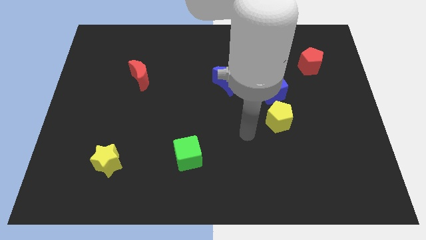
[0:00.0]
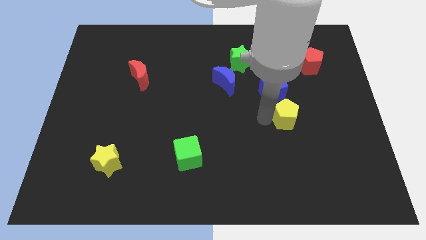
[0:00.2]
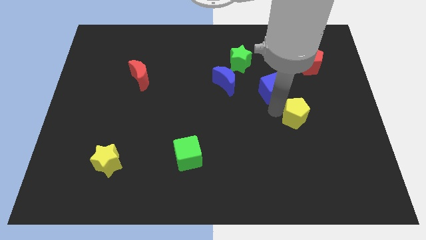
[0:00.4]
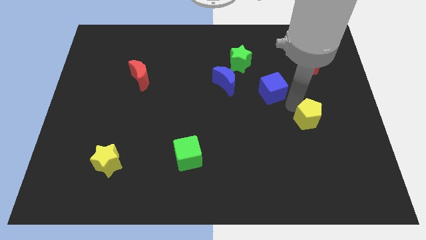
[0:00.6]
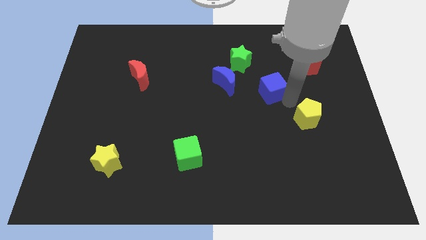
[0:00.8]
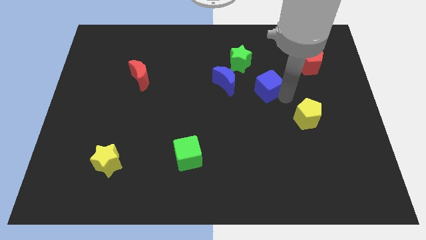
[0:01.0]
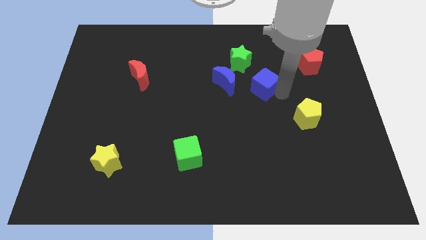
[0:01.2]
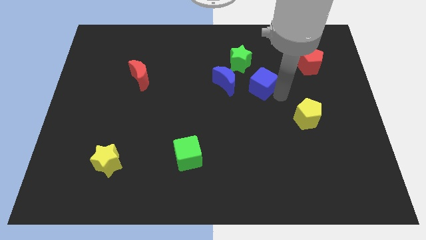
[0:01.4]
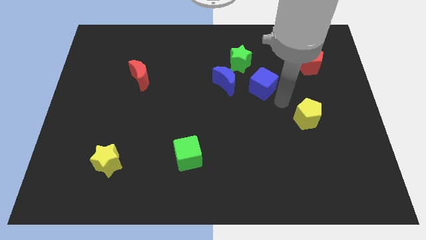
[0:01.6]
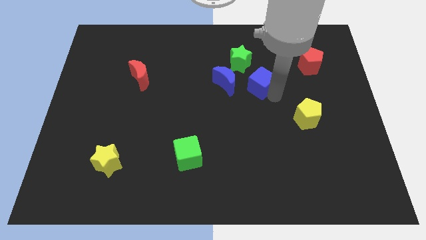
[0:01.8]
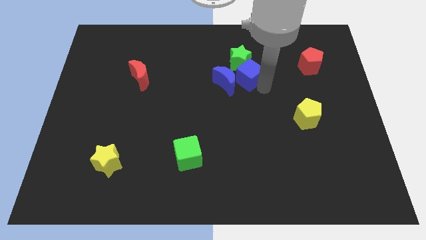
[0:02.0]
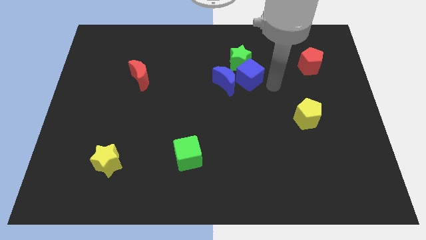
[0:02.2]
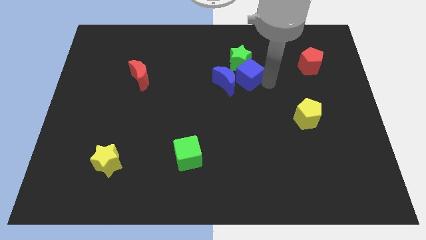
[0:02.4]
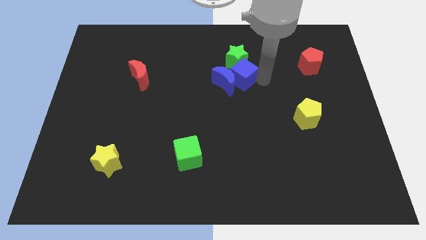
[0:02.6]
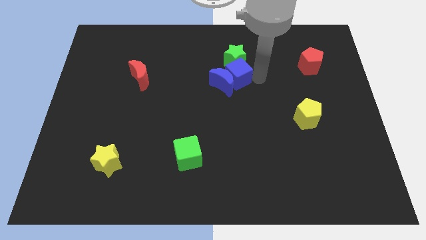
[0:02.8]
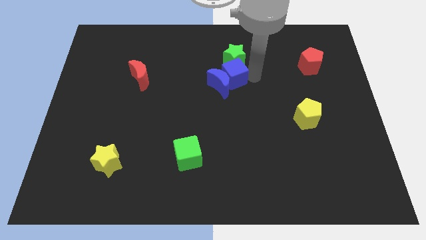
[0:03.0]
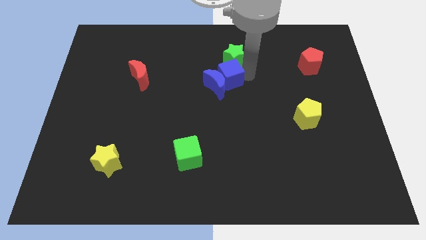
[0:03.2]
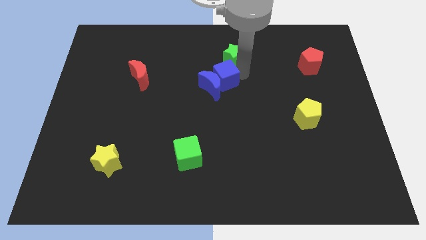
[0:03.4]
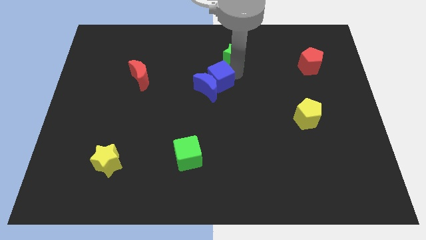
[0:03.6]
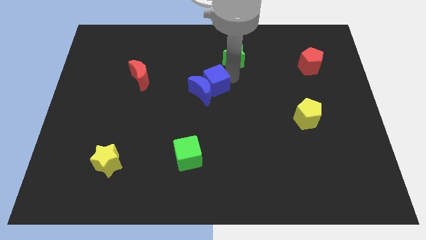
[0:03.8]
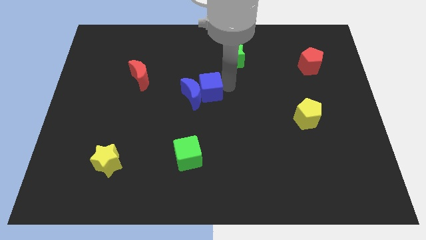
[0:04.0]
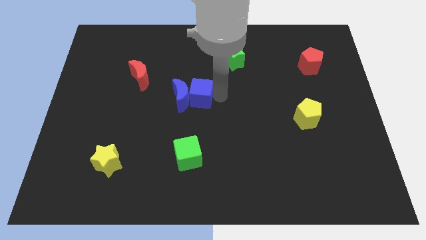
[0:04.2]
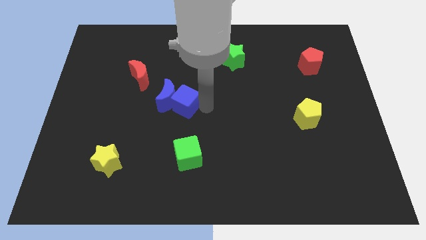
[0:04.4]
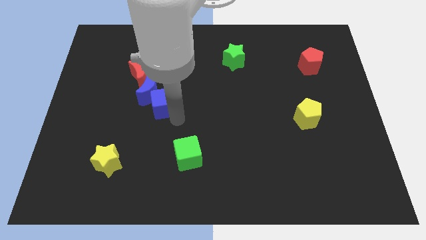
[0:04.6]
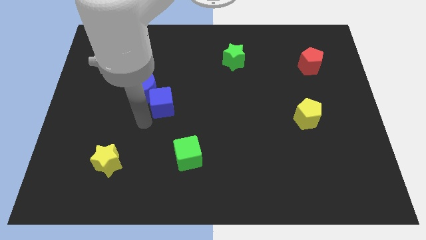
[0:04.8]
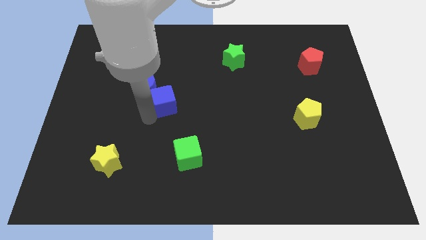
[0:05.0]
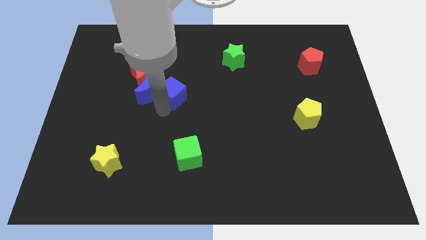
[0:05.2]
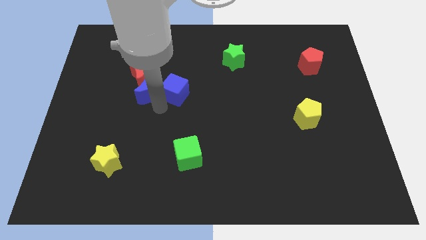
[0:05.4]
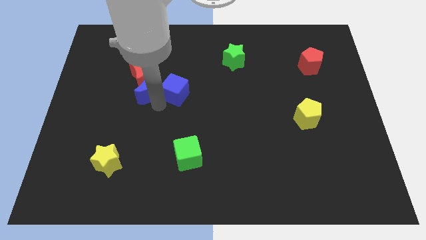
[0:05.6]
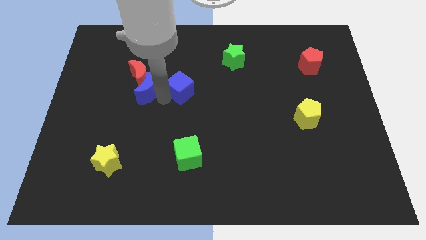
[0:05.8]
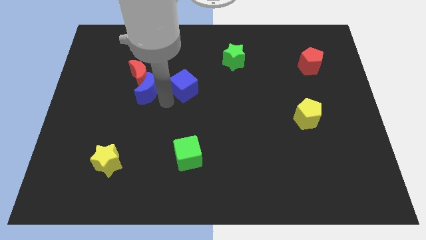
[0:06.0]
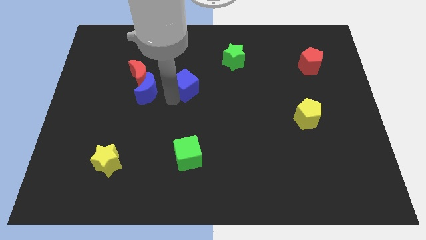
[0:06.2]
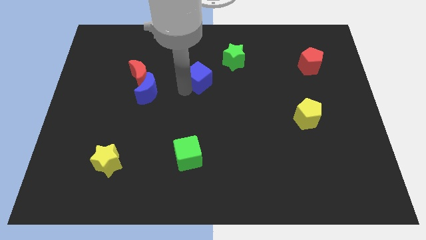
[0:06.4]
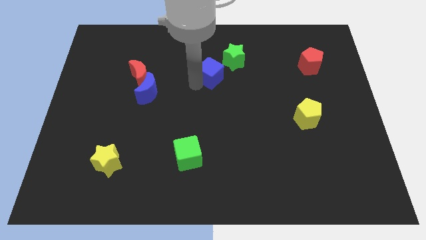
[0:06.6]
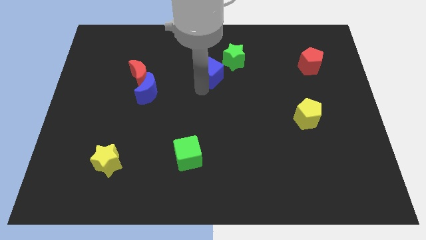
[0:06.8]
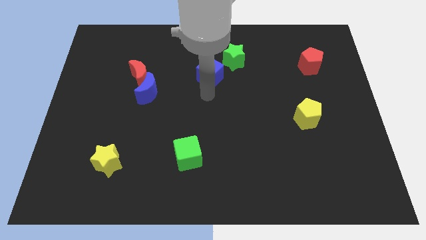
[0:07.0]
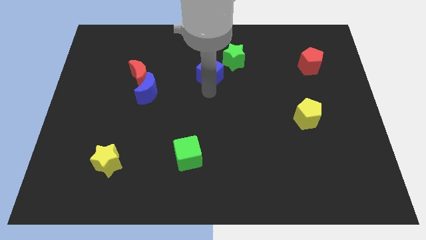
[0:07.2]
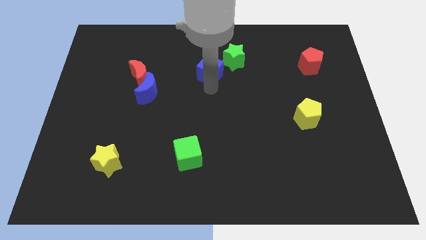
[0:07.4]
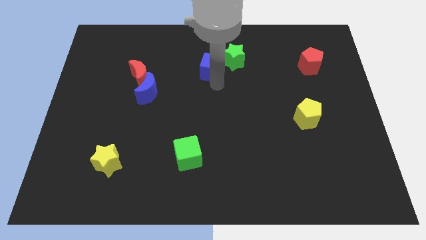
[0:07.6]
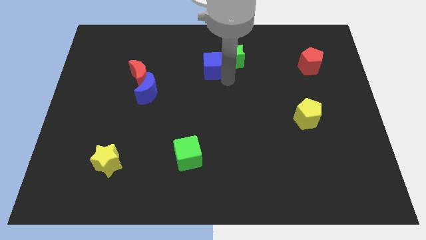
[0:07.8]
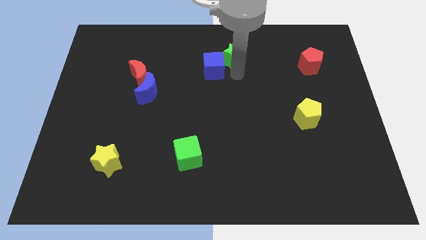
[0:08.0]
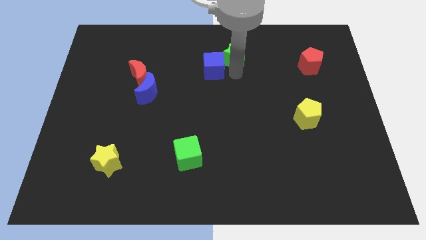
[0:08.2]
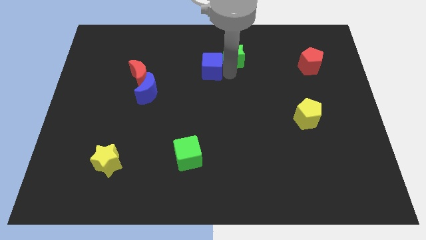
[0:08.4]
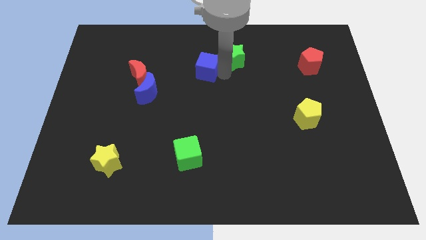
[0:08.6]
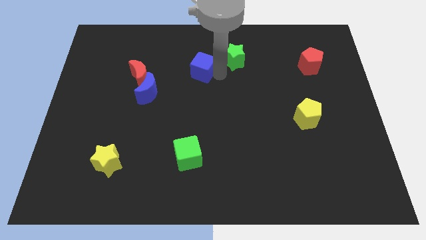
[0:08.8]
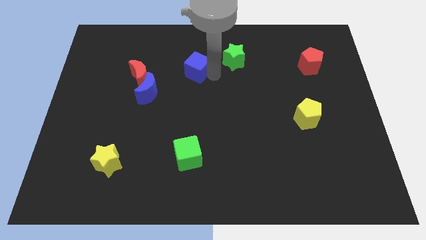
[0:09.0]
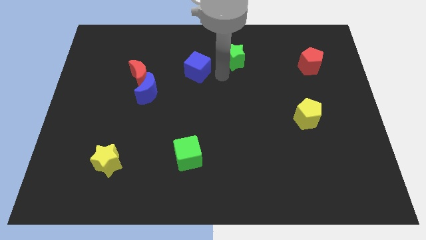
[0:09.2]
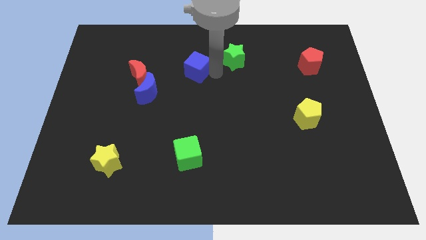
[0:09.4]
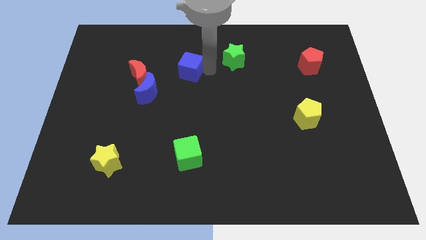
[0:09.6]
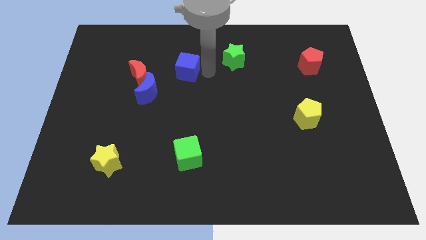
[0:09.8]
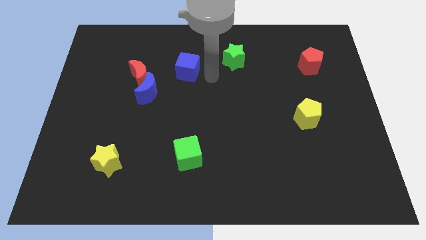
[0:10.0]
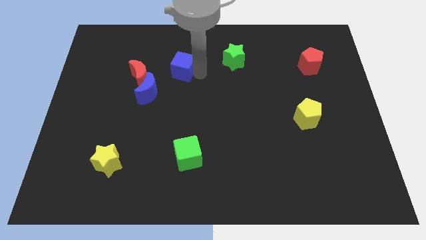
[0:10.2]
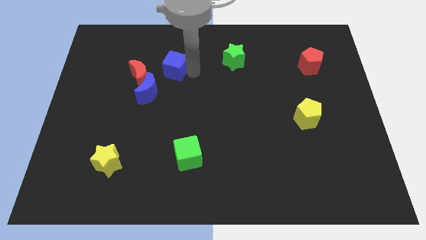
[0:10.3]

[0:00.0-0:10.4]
push the blue cube diagonally up and to the right of the red moon

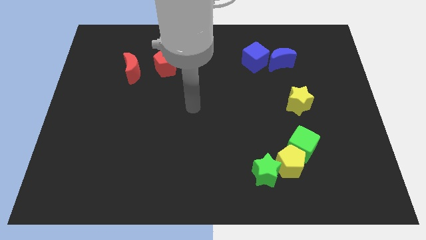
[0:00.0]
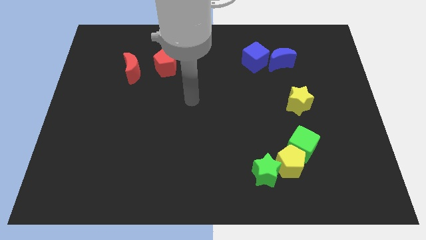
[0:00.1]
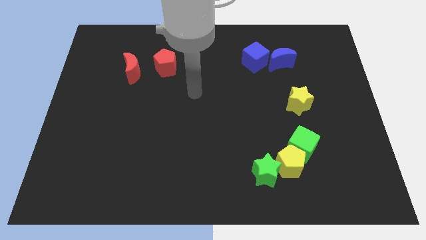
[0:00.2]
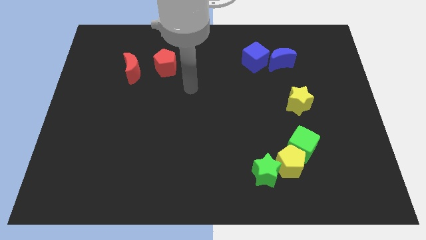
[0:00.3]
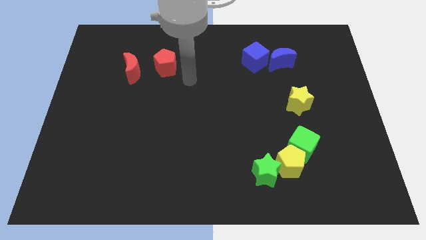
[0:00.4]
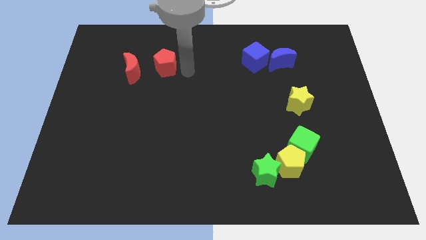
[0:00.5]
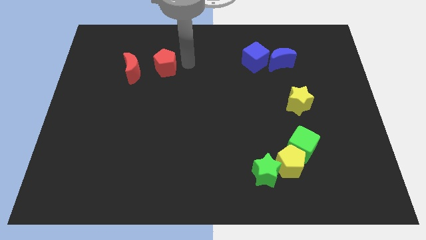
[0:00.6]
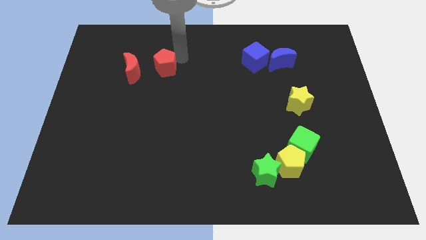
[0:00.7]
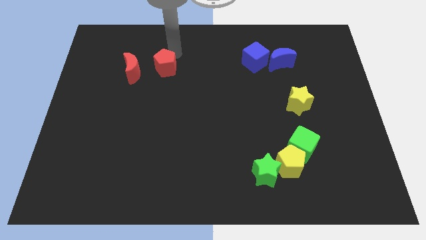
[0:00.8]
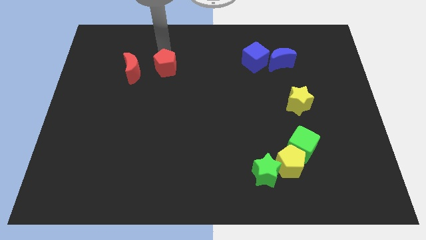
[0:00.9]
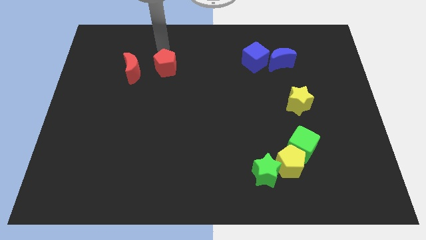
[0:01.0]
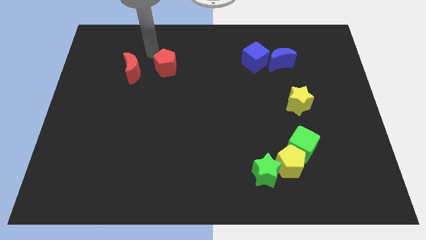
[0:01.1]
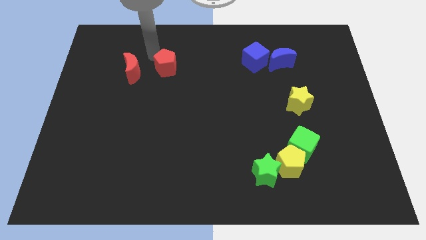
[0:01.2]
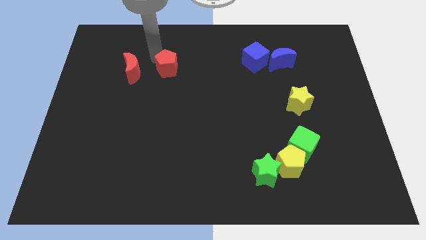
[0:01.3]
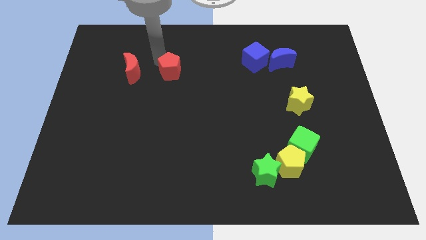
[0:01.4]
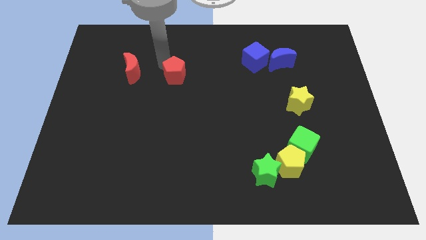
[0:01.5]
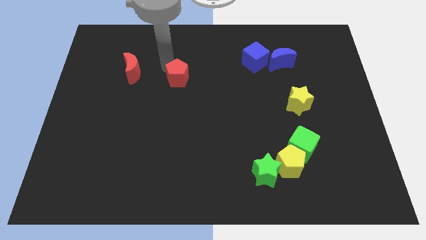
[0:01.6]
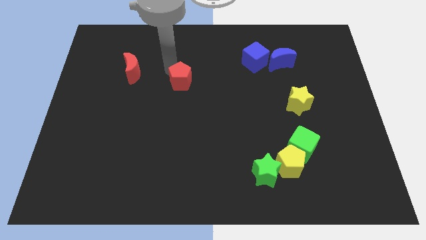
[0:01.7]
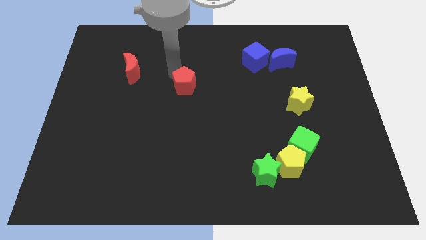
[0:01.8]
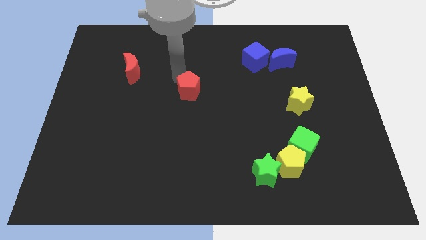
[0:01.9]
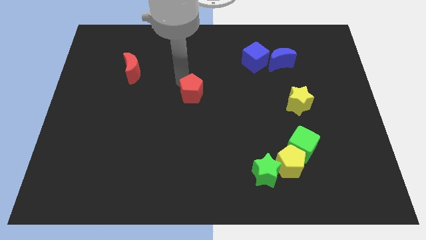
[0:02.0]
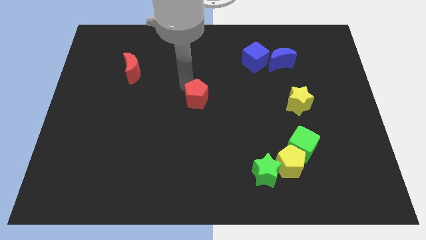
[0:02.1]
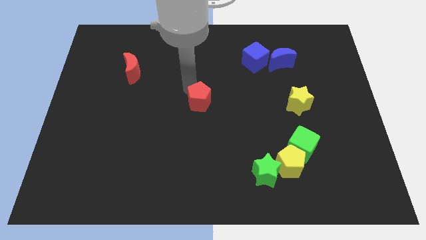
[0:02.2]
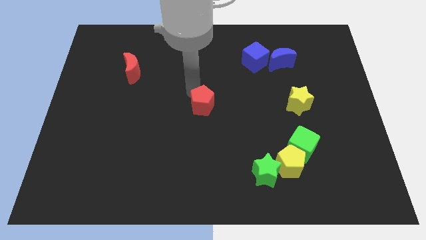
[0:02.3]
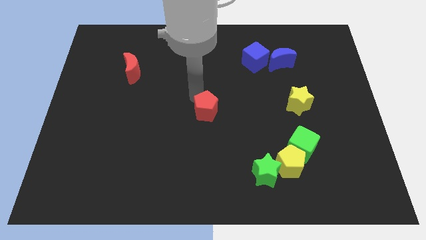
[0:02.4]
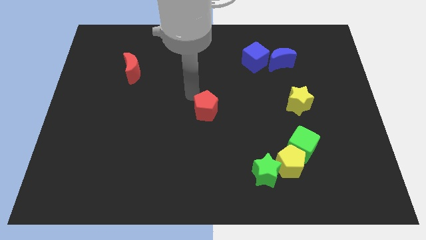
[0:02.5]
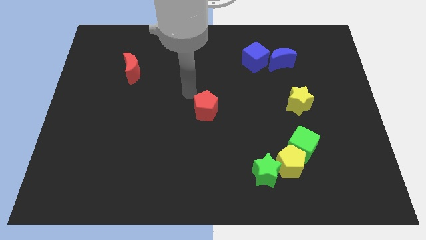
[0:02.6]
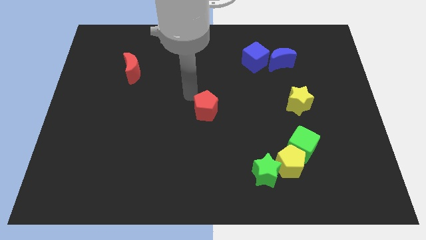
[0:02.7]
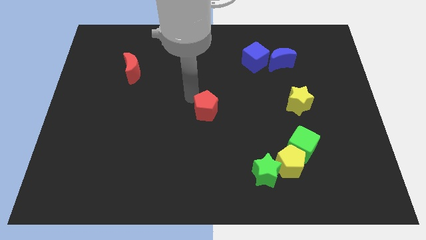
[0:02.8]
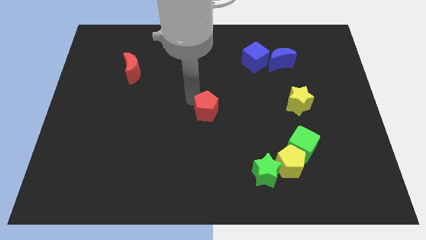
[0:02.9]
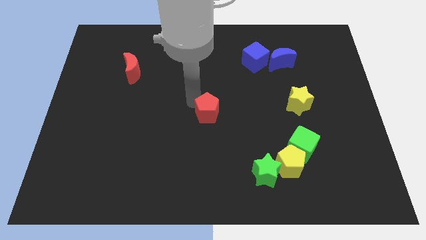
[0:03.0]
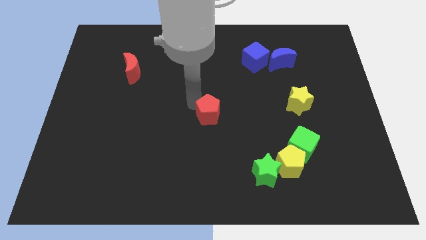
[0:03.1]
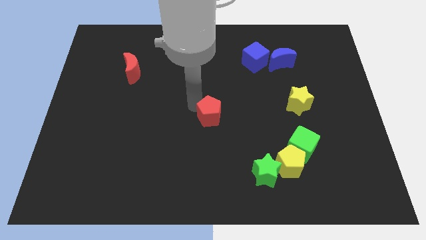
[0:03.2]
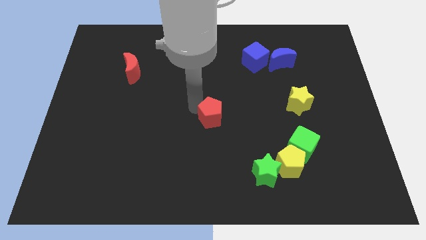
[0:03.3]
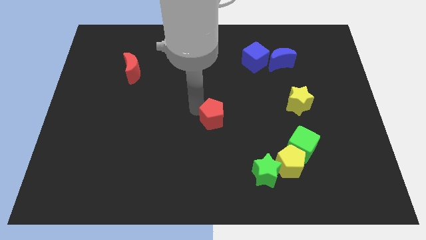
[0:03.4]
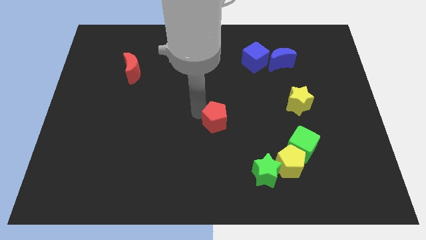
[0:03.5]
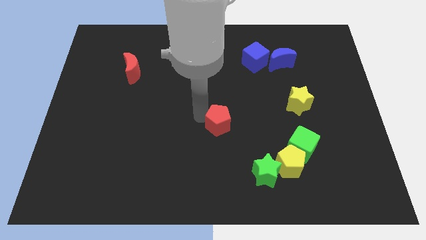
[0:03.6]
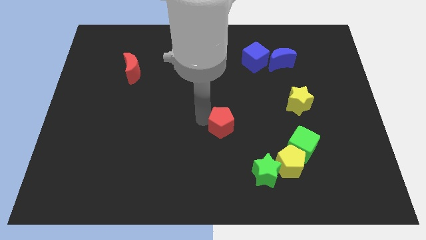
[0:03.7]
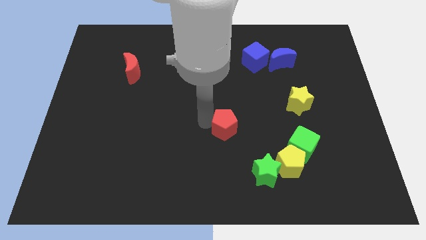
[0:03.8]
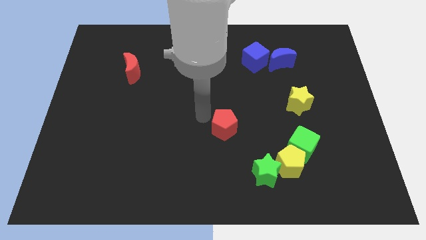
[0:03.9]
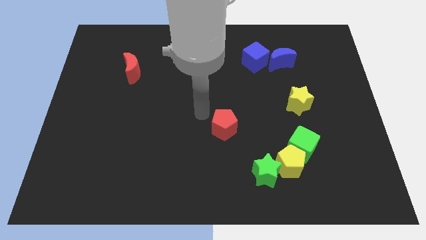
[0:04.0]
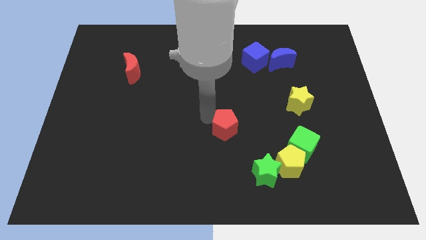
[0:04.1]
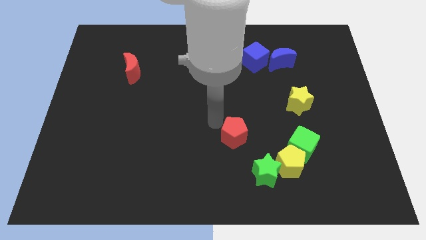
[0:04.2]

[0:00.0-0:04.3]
put the red pentagon to the left side of the green cube
